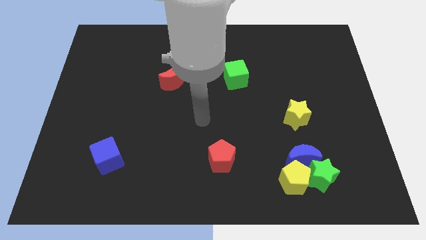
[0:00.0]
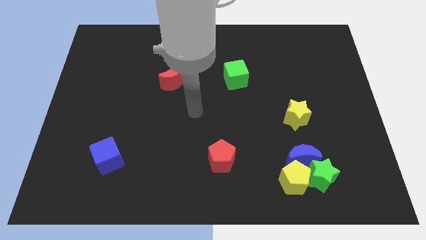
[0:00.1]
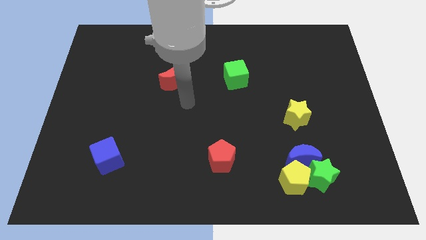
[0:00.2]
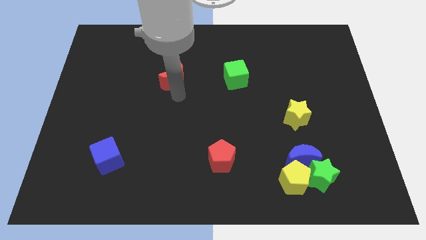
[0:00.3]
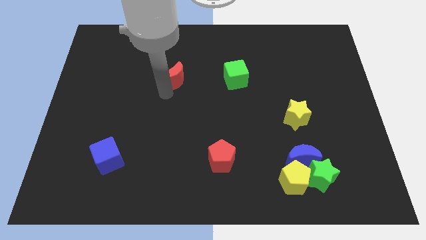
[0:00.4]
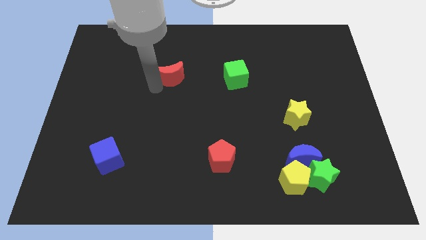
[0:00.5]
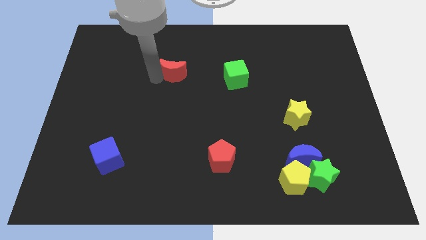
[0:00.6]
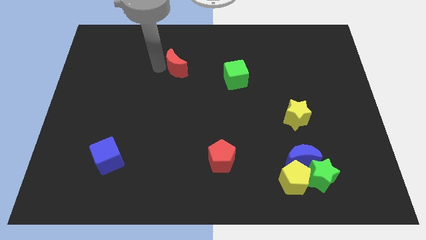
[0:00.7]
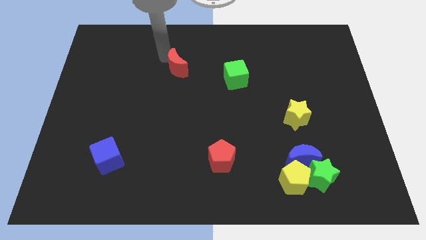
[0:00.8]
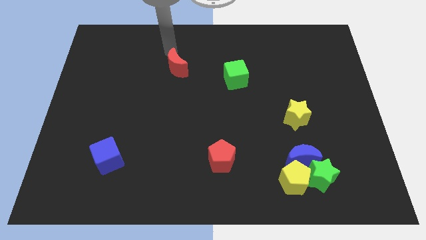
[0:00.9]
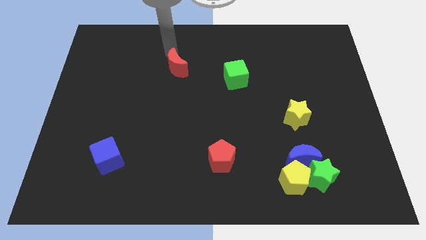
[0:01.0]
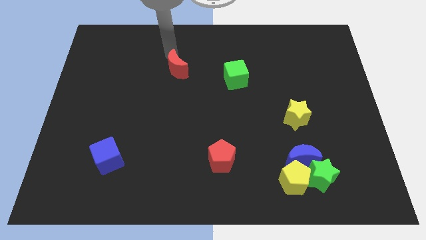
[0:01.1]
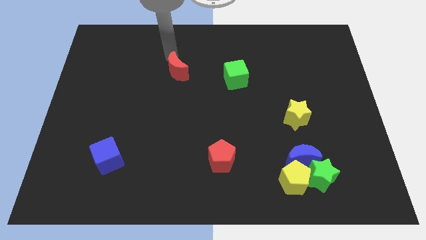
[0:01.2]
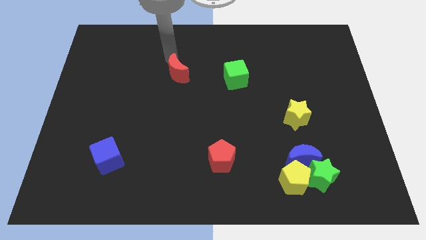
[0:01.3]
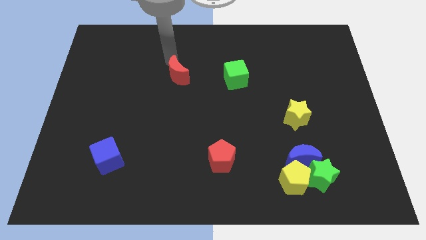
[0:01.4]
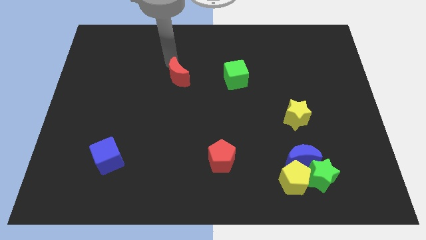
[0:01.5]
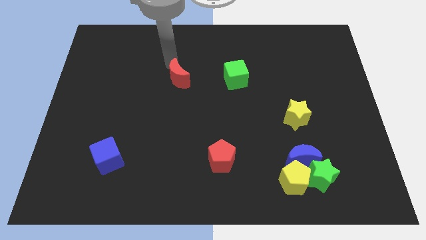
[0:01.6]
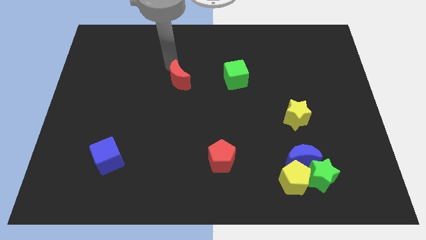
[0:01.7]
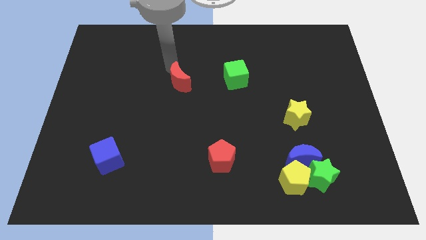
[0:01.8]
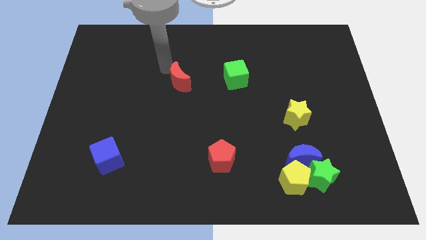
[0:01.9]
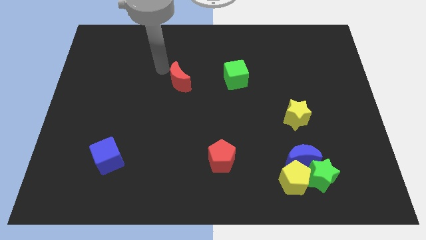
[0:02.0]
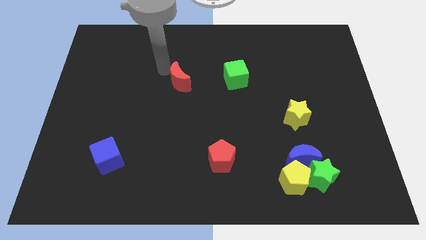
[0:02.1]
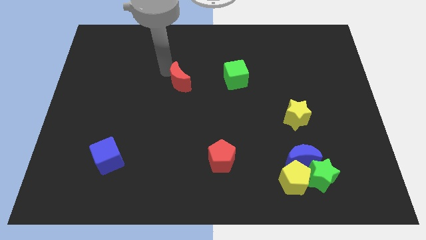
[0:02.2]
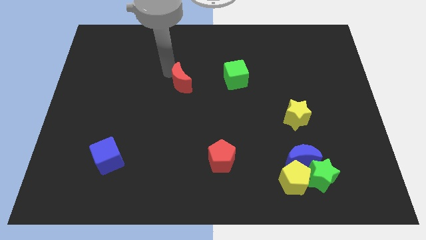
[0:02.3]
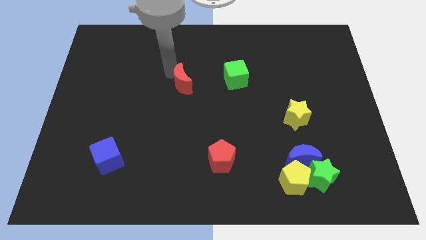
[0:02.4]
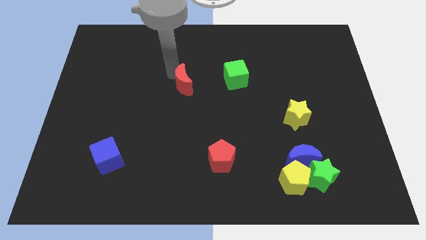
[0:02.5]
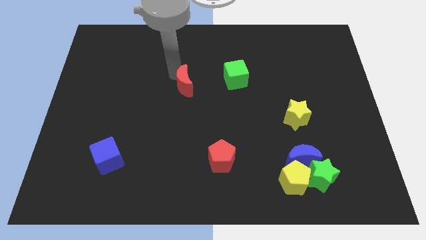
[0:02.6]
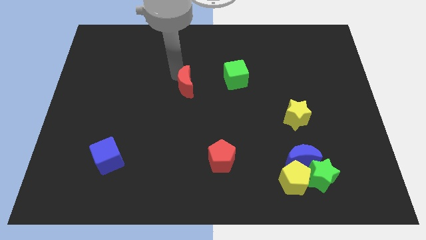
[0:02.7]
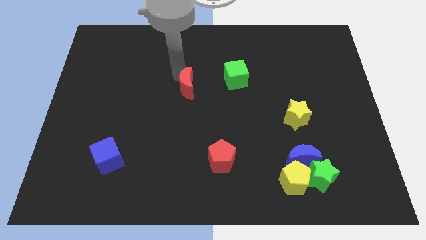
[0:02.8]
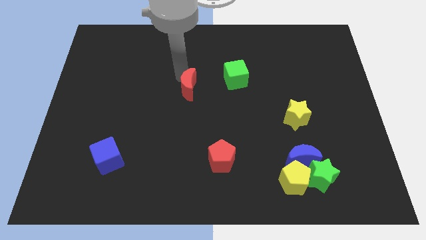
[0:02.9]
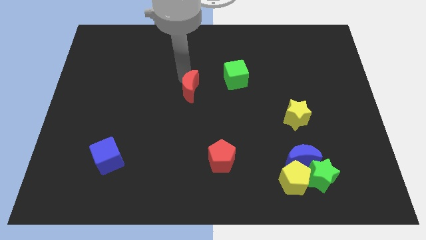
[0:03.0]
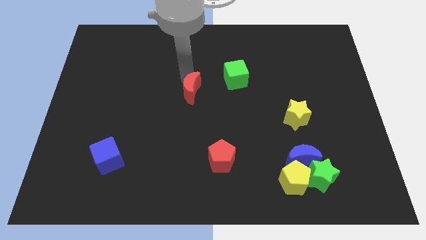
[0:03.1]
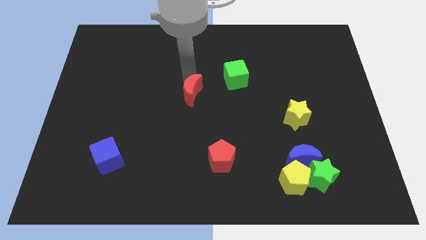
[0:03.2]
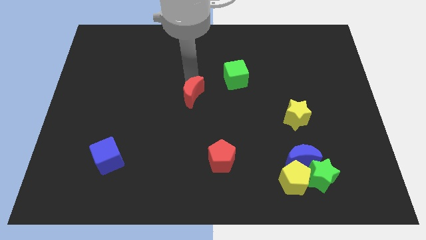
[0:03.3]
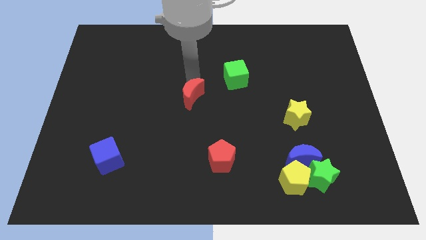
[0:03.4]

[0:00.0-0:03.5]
move the red moon somewhat downwards and then right

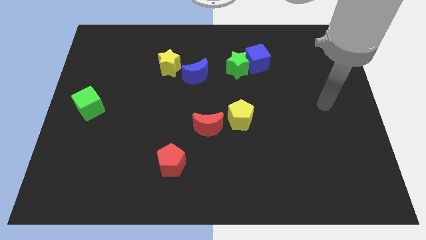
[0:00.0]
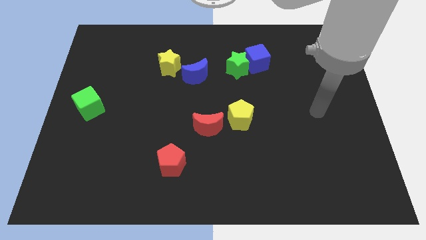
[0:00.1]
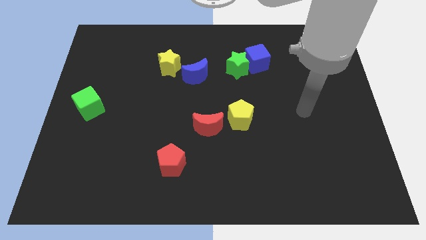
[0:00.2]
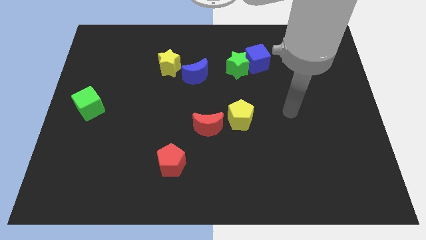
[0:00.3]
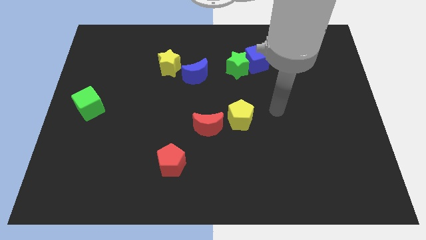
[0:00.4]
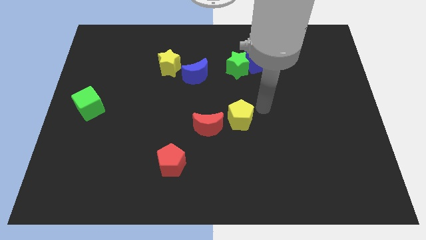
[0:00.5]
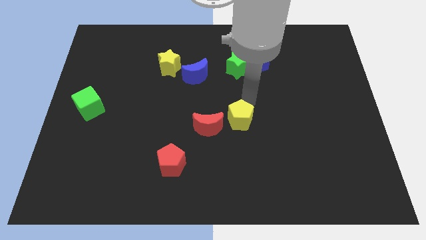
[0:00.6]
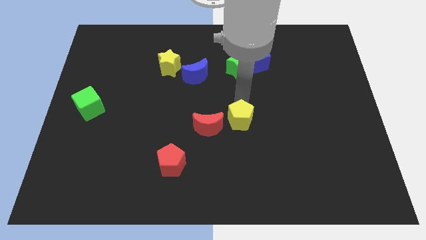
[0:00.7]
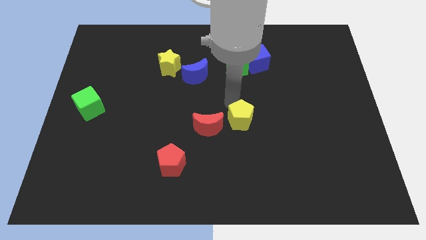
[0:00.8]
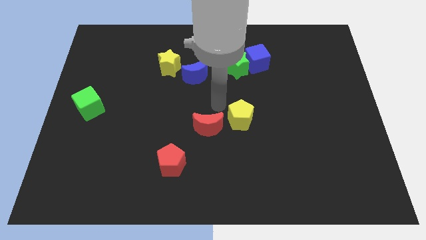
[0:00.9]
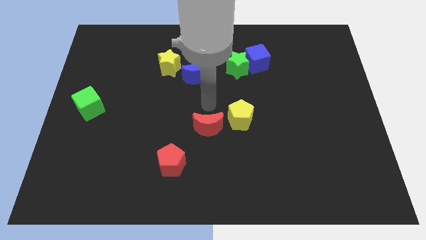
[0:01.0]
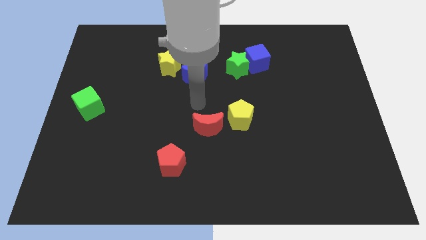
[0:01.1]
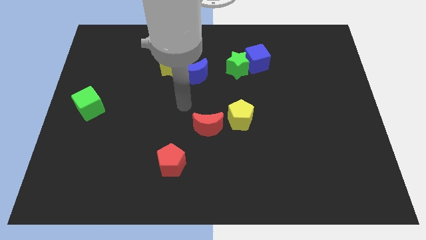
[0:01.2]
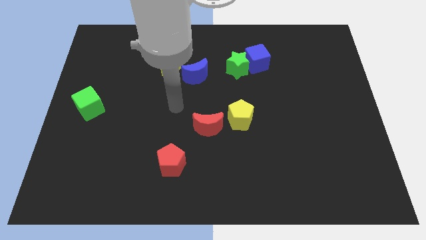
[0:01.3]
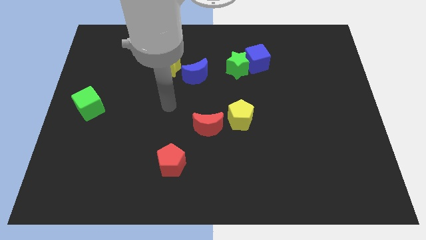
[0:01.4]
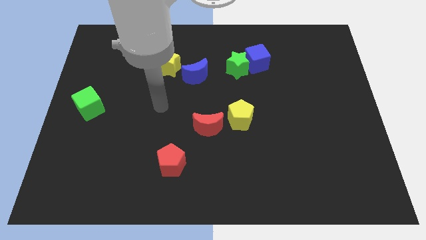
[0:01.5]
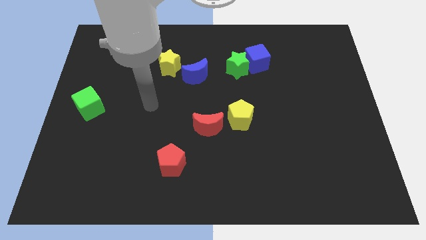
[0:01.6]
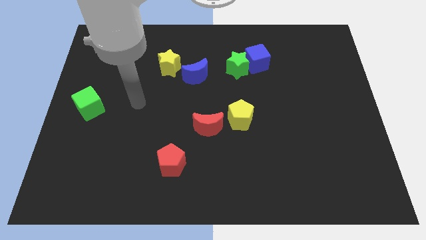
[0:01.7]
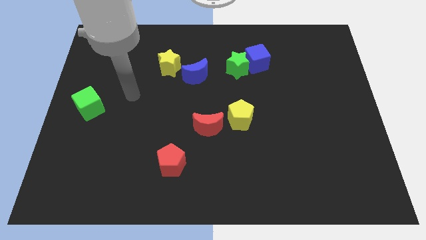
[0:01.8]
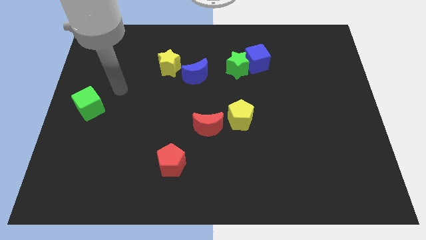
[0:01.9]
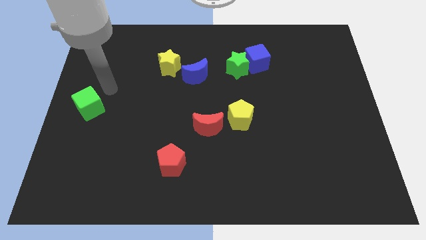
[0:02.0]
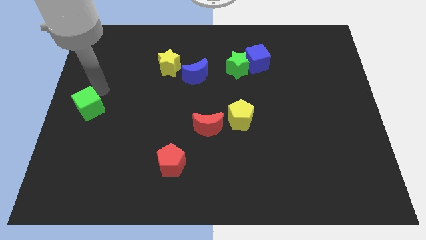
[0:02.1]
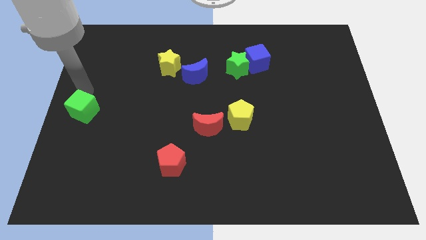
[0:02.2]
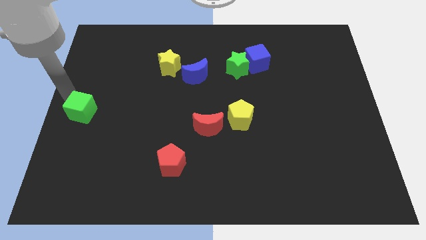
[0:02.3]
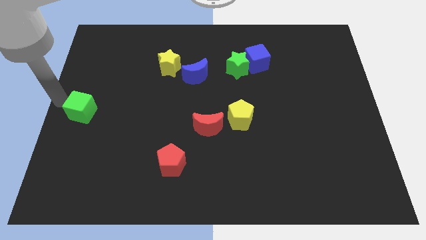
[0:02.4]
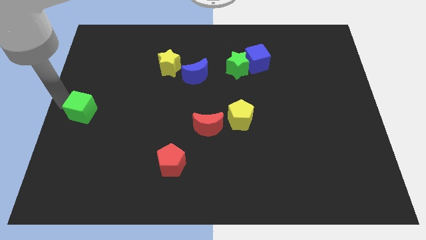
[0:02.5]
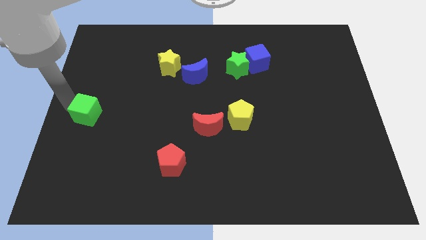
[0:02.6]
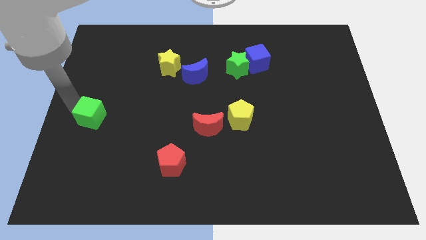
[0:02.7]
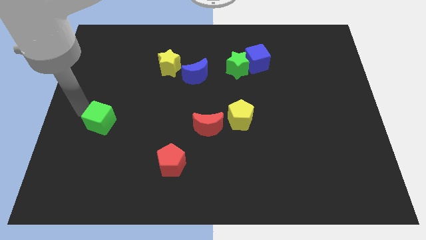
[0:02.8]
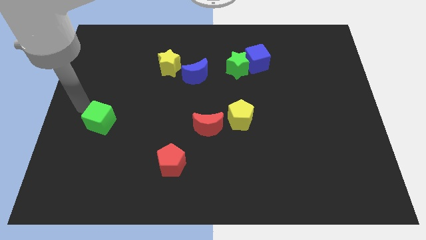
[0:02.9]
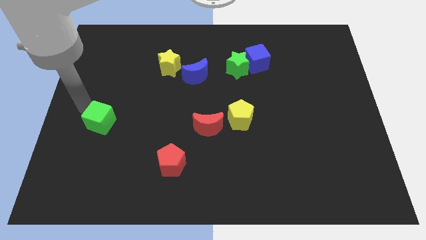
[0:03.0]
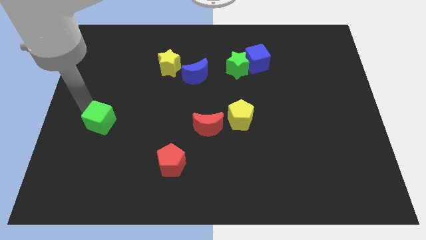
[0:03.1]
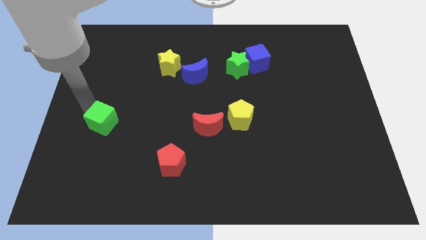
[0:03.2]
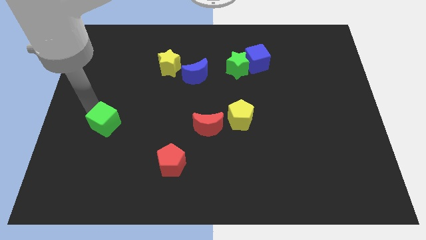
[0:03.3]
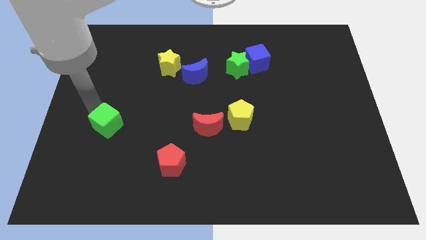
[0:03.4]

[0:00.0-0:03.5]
move the green cube diagonally down and to the right a little bit

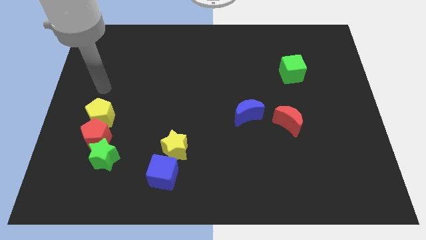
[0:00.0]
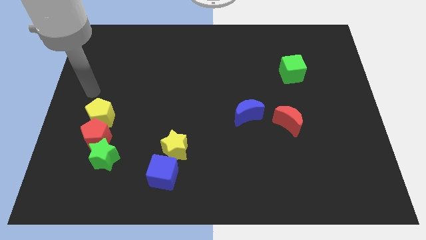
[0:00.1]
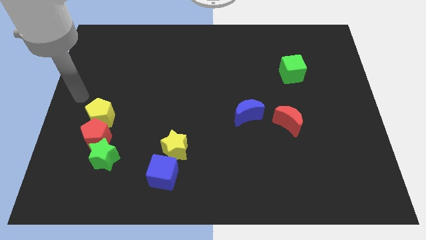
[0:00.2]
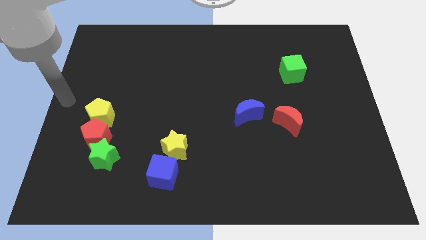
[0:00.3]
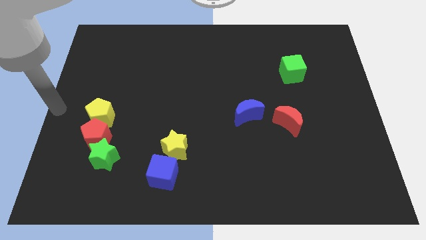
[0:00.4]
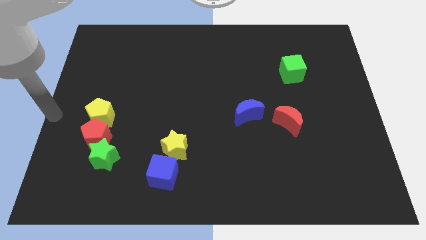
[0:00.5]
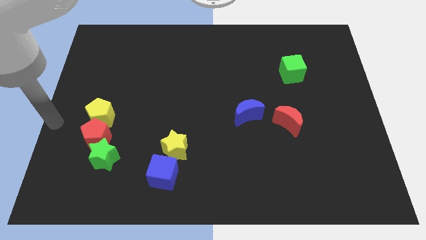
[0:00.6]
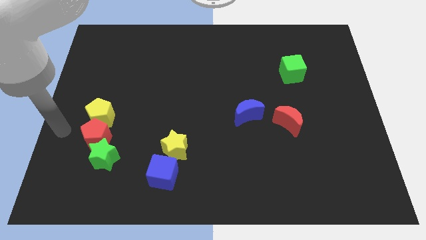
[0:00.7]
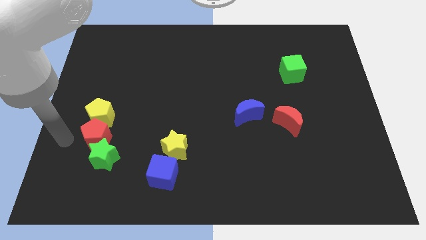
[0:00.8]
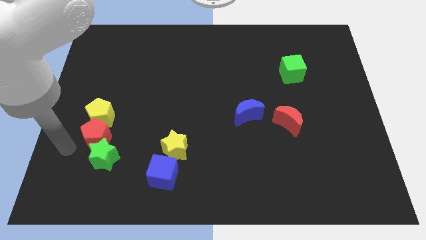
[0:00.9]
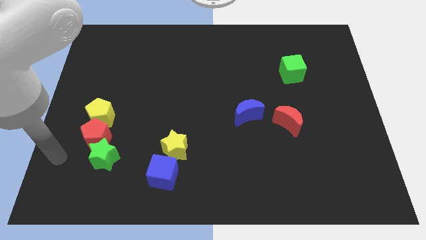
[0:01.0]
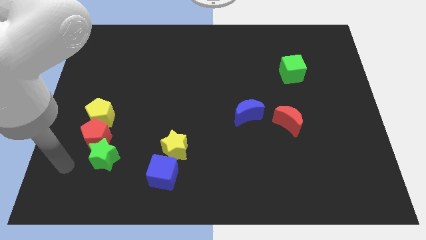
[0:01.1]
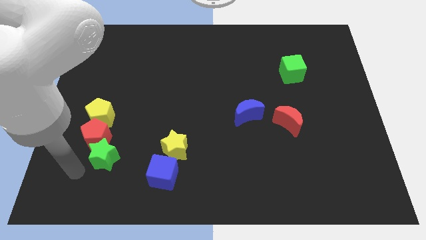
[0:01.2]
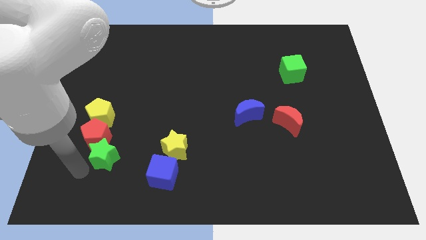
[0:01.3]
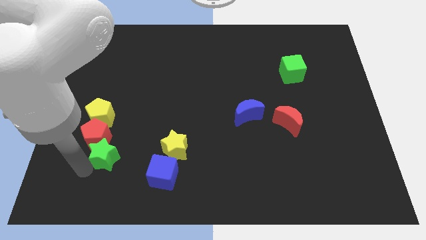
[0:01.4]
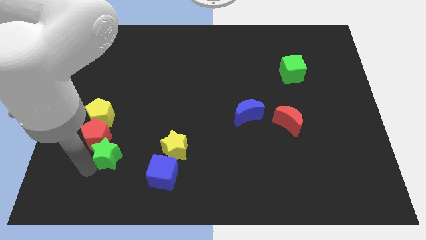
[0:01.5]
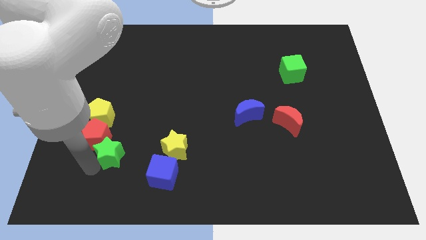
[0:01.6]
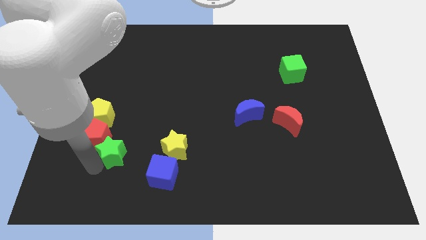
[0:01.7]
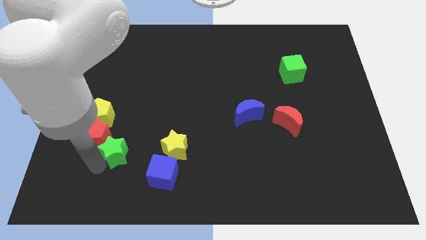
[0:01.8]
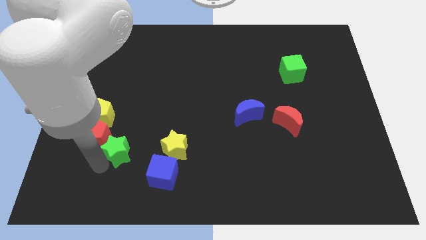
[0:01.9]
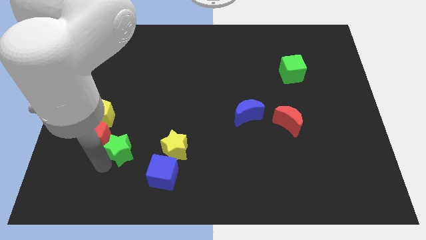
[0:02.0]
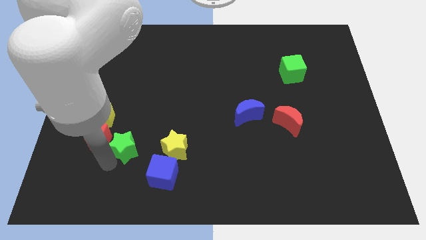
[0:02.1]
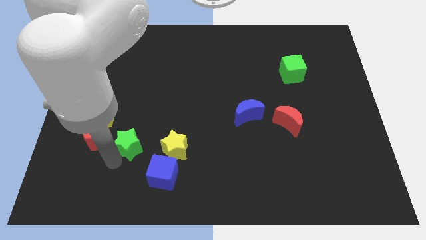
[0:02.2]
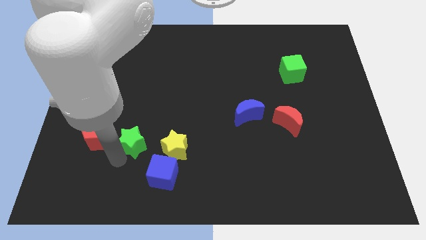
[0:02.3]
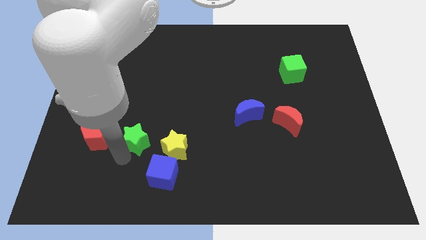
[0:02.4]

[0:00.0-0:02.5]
slide the green star slightly diagonally upwards and right
